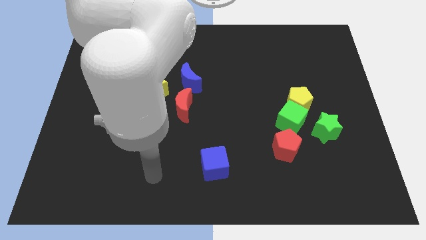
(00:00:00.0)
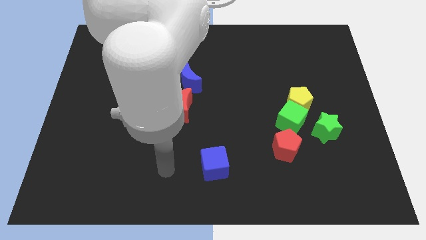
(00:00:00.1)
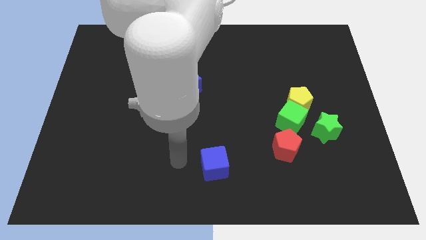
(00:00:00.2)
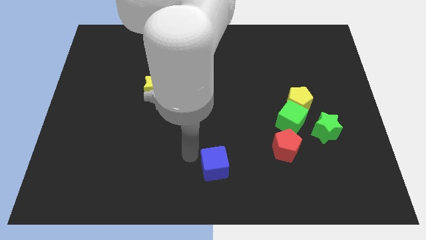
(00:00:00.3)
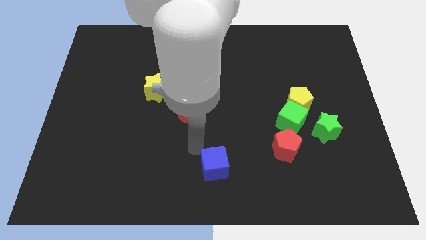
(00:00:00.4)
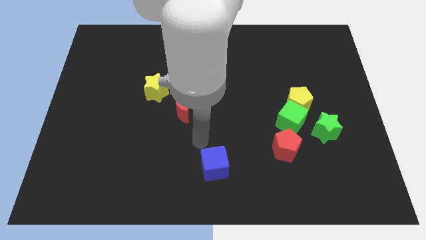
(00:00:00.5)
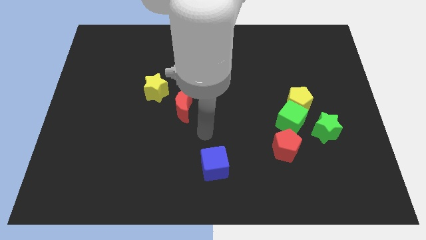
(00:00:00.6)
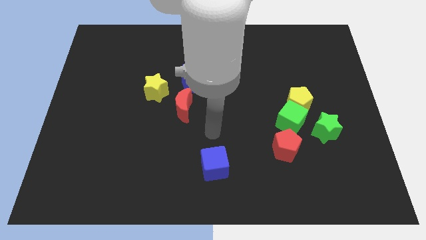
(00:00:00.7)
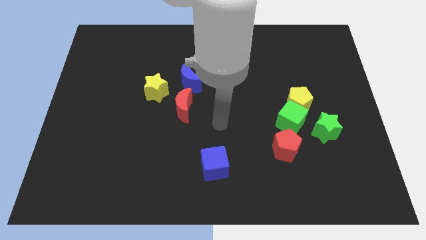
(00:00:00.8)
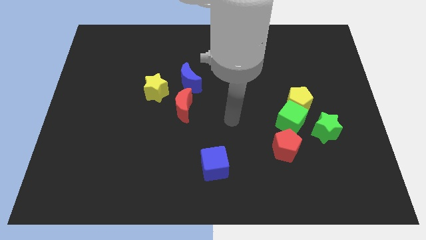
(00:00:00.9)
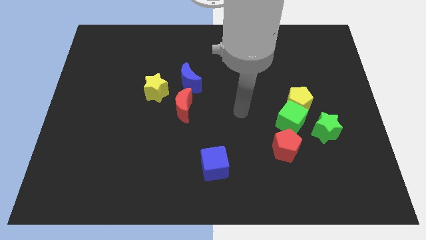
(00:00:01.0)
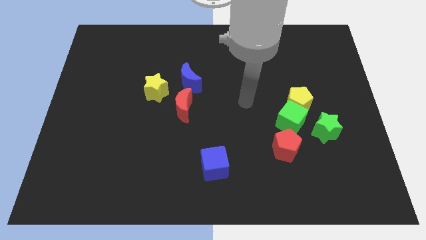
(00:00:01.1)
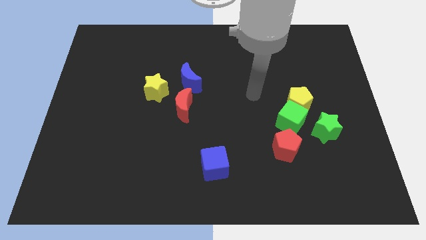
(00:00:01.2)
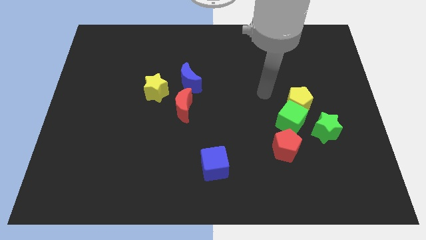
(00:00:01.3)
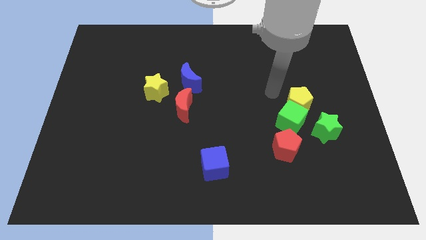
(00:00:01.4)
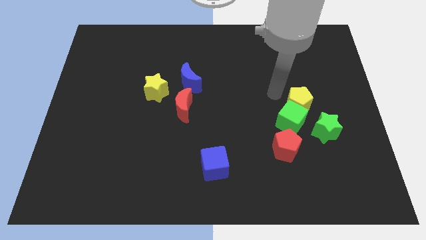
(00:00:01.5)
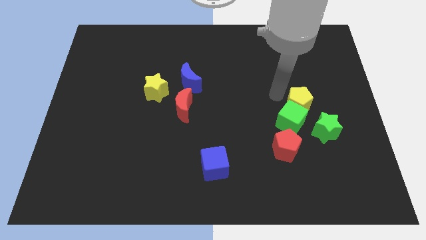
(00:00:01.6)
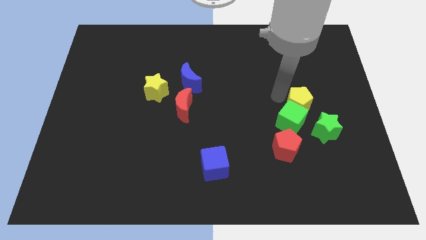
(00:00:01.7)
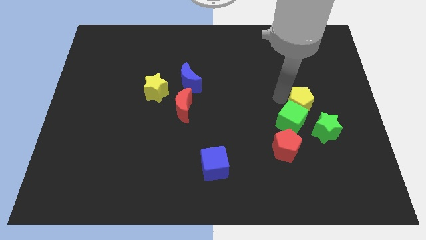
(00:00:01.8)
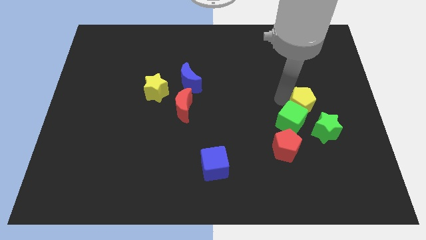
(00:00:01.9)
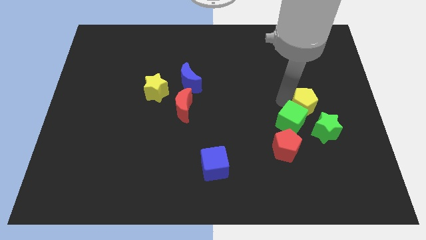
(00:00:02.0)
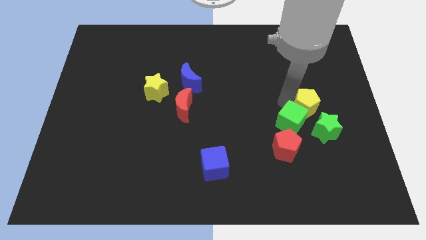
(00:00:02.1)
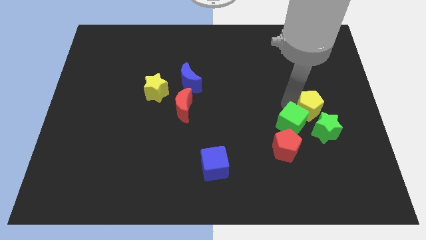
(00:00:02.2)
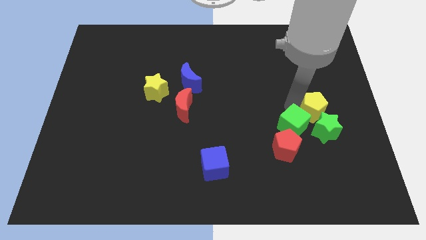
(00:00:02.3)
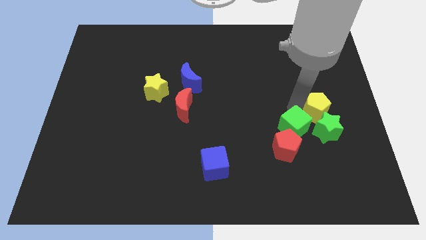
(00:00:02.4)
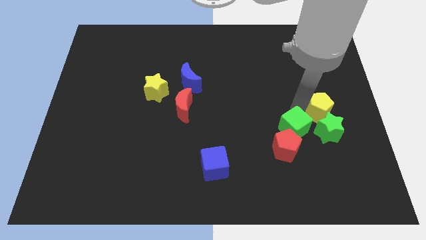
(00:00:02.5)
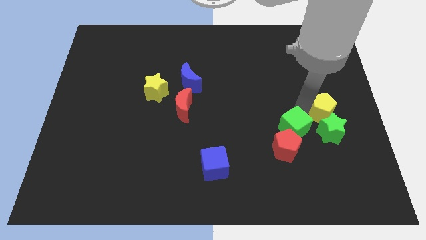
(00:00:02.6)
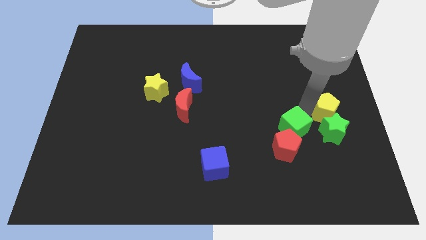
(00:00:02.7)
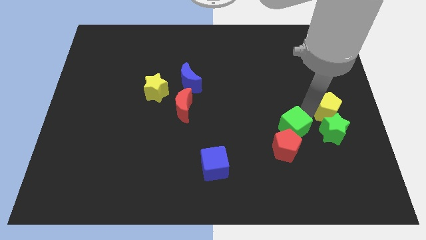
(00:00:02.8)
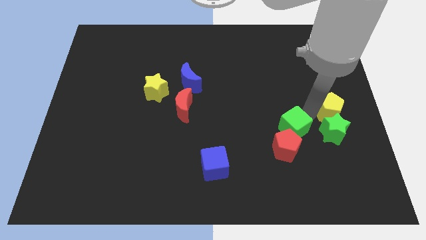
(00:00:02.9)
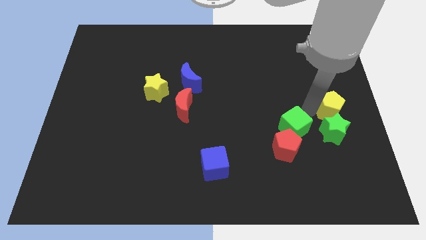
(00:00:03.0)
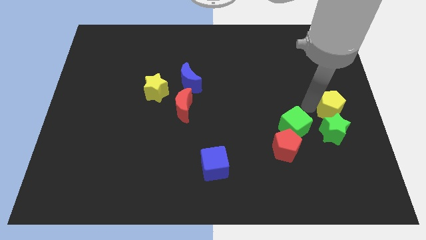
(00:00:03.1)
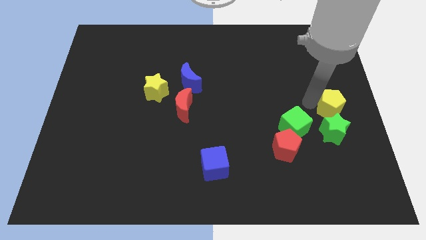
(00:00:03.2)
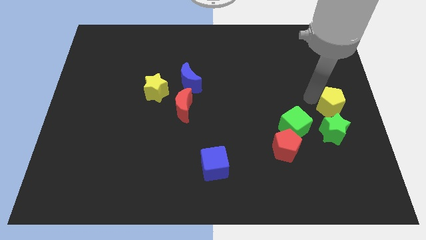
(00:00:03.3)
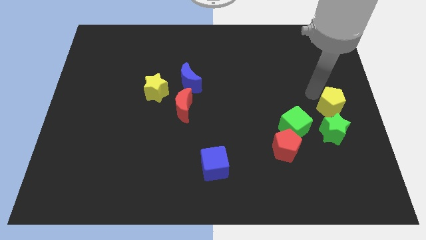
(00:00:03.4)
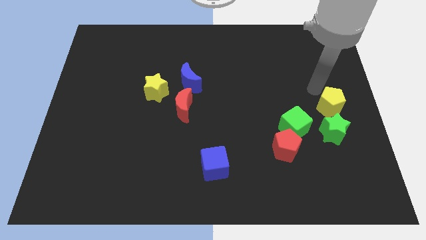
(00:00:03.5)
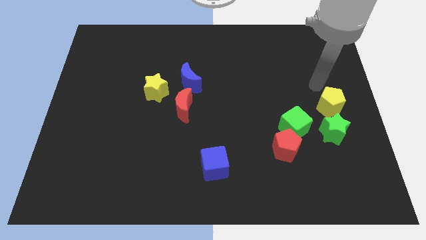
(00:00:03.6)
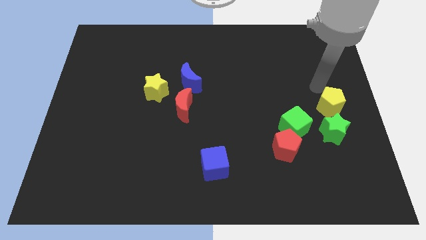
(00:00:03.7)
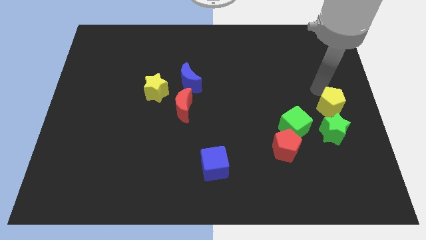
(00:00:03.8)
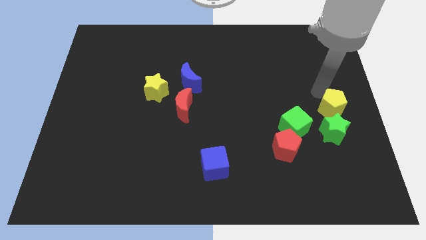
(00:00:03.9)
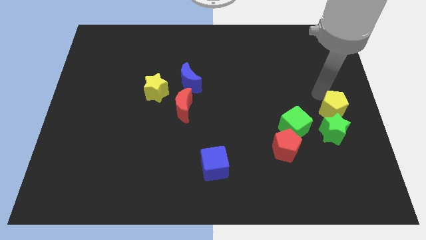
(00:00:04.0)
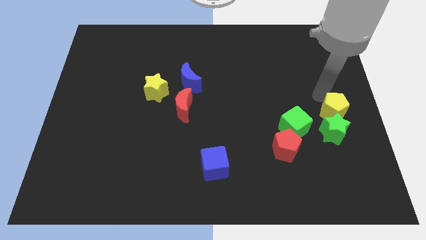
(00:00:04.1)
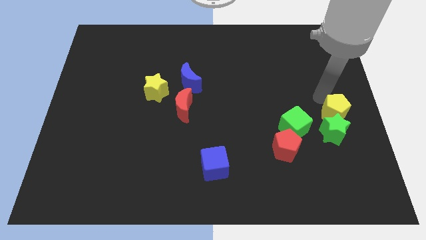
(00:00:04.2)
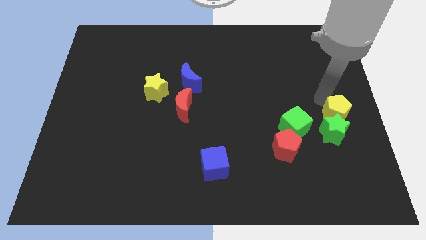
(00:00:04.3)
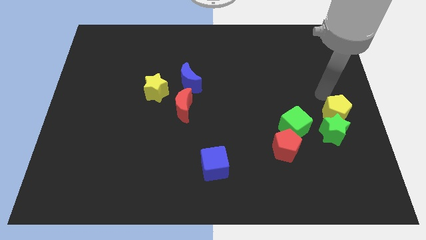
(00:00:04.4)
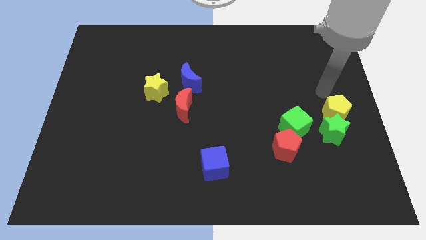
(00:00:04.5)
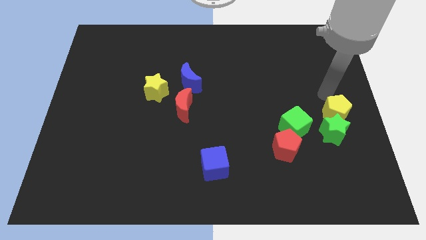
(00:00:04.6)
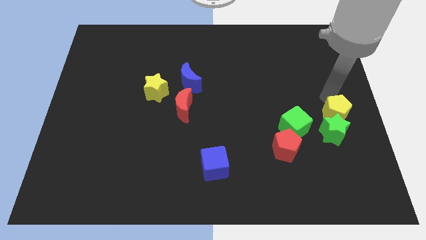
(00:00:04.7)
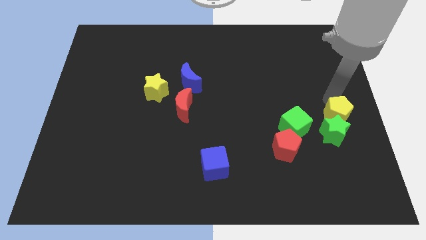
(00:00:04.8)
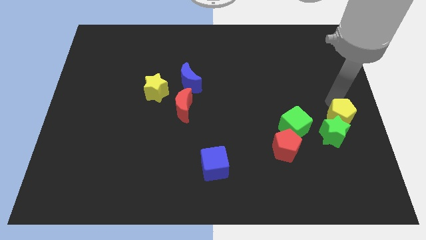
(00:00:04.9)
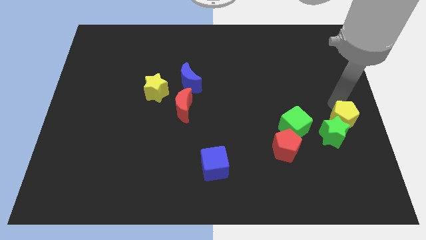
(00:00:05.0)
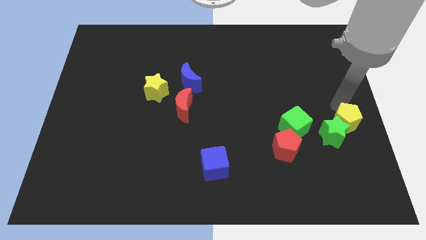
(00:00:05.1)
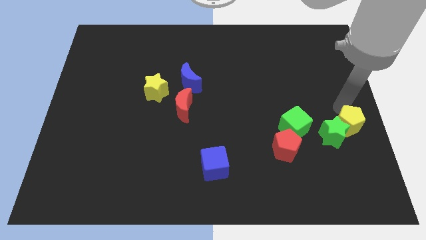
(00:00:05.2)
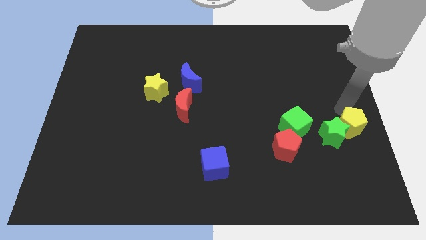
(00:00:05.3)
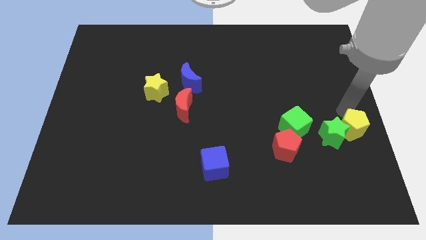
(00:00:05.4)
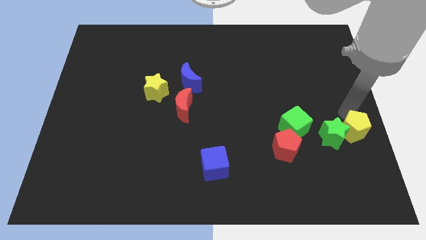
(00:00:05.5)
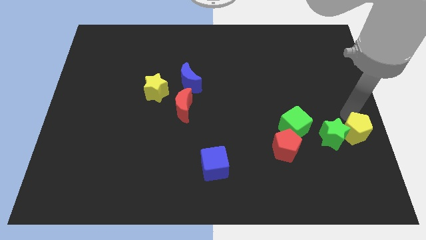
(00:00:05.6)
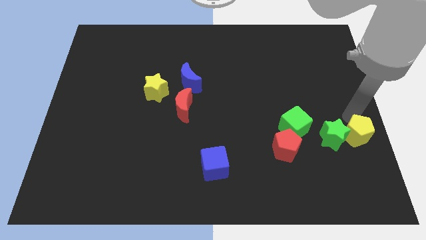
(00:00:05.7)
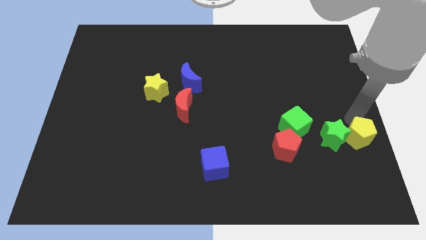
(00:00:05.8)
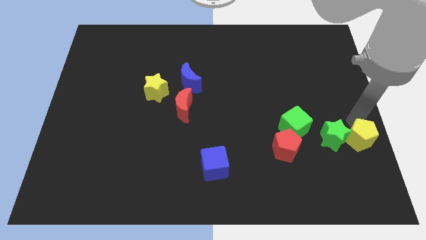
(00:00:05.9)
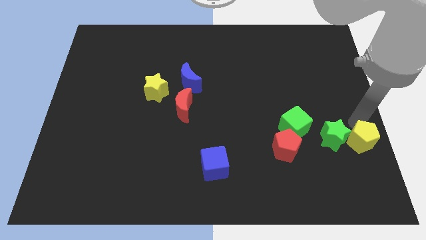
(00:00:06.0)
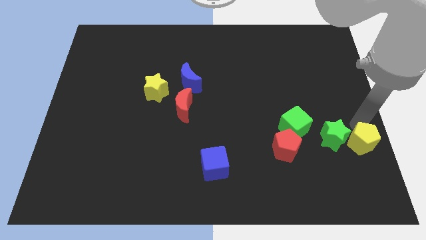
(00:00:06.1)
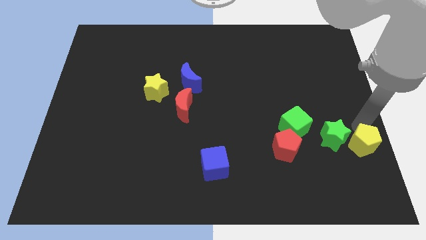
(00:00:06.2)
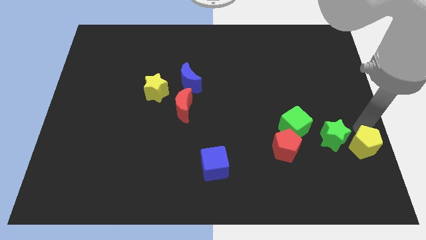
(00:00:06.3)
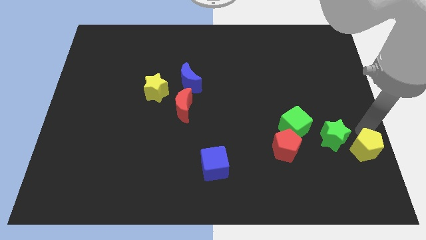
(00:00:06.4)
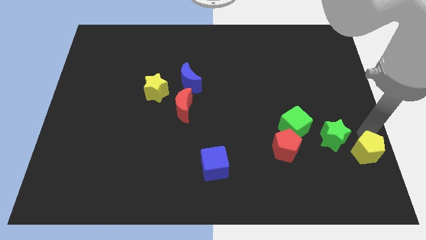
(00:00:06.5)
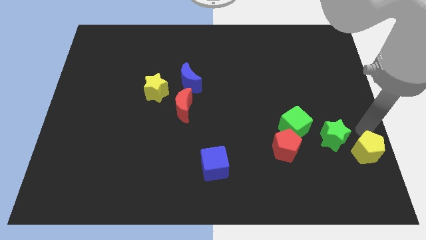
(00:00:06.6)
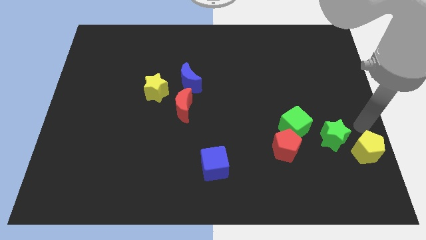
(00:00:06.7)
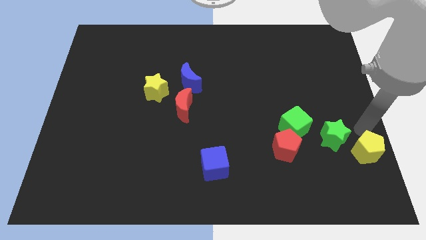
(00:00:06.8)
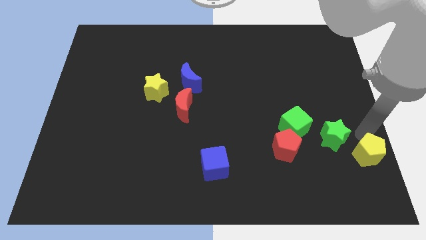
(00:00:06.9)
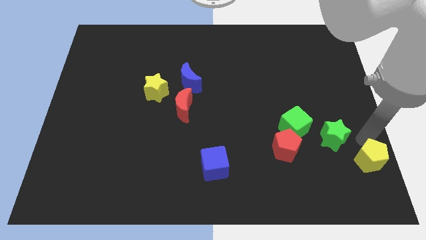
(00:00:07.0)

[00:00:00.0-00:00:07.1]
put the yellow pentagon to the bottom right of the board
